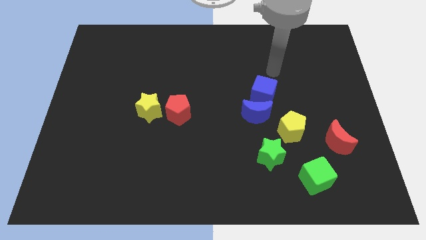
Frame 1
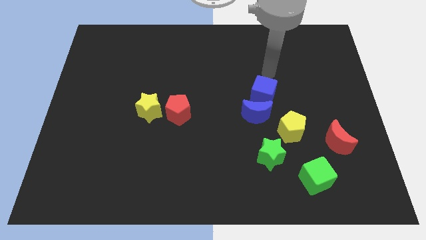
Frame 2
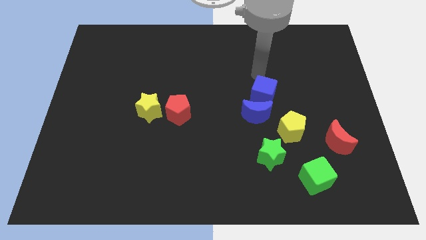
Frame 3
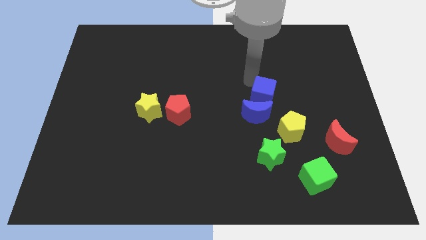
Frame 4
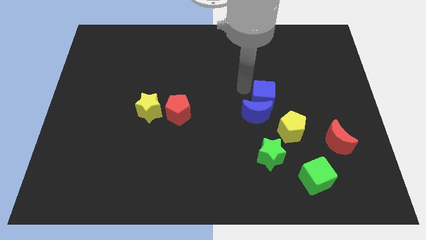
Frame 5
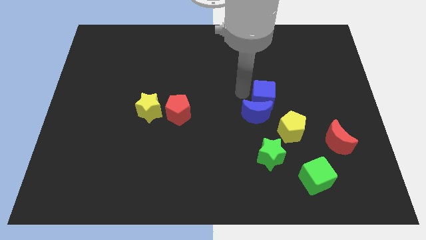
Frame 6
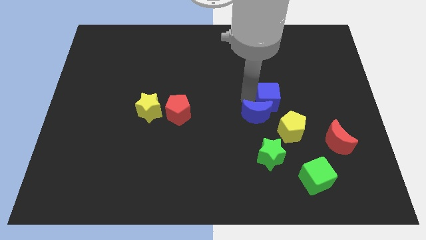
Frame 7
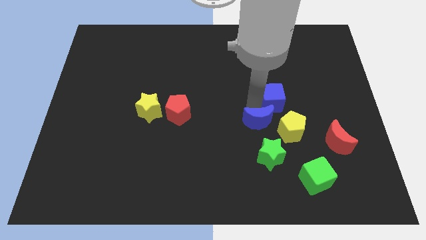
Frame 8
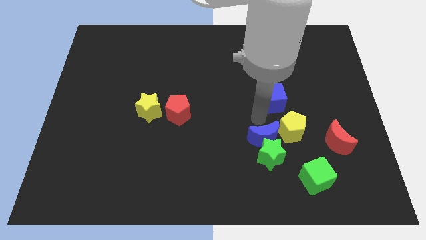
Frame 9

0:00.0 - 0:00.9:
pull the blue cube apart from the blue moon

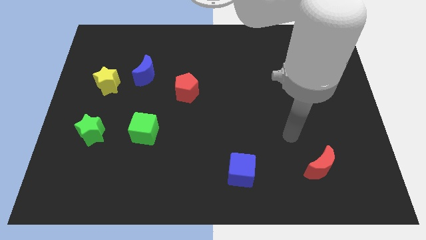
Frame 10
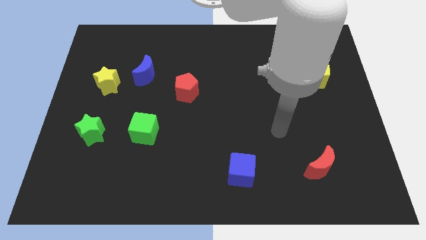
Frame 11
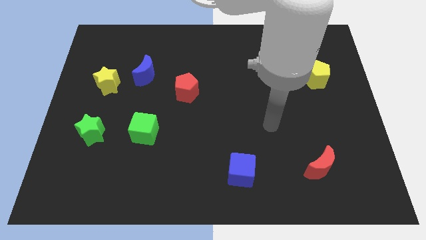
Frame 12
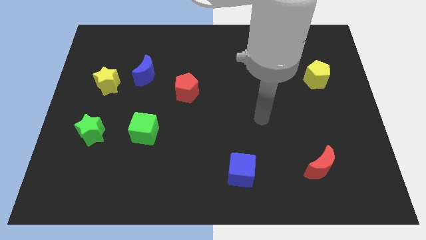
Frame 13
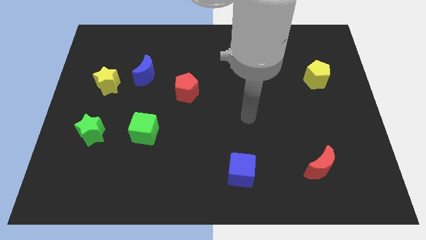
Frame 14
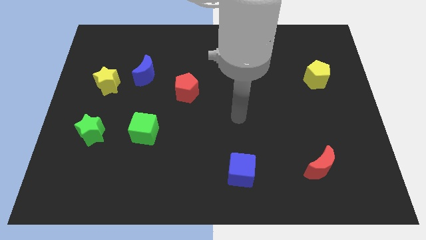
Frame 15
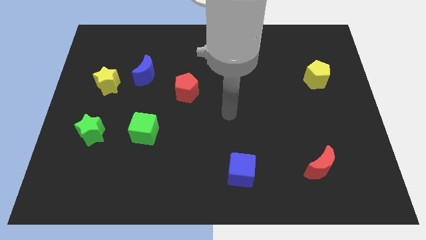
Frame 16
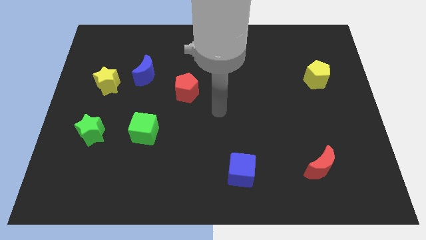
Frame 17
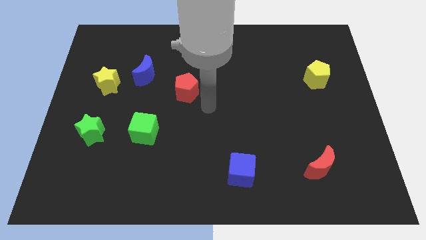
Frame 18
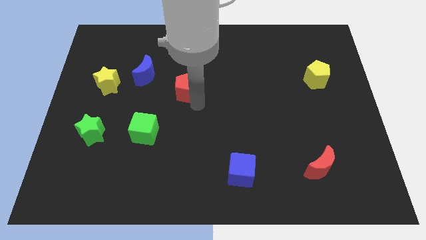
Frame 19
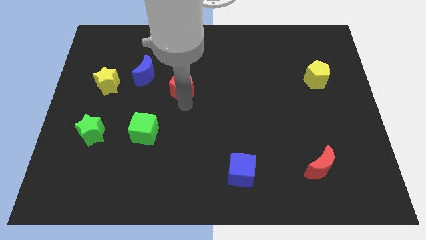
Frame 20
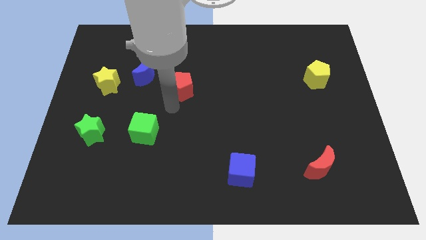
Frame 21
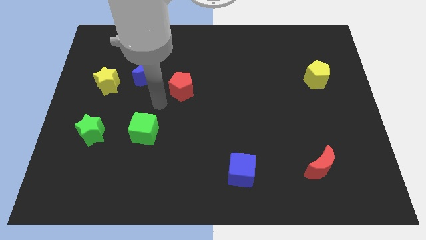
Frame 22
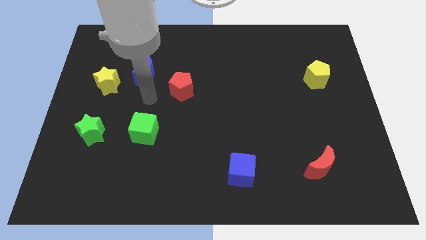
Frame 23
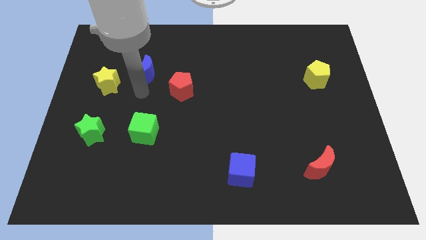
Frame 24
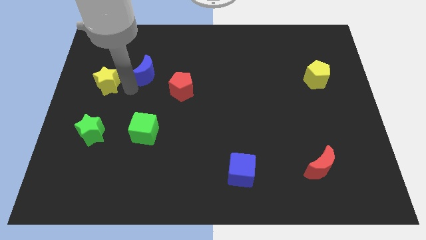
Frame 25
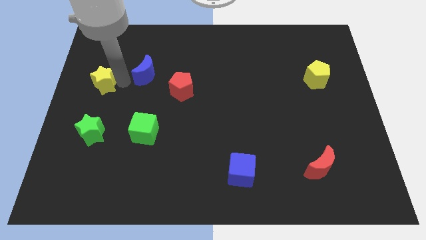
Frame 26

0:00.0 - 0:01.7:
move the blue moon away from the yellow star

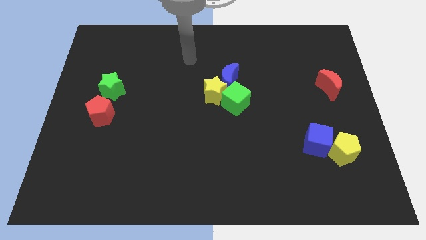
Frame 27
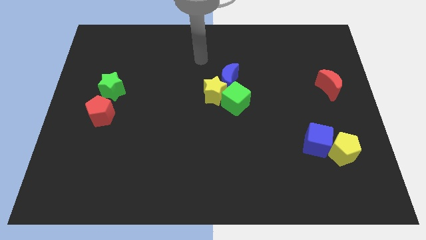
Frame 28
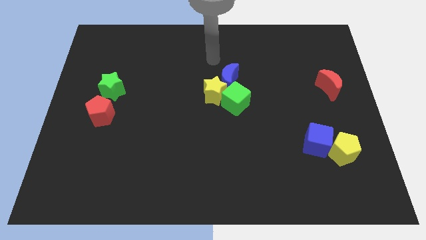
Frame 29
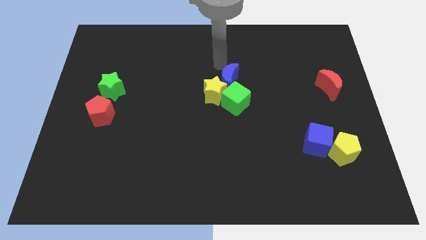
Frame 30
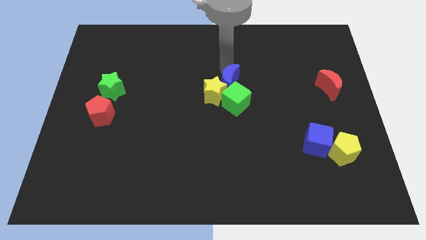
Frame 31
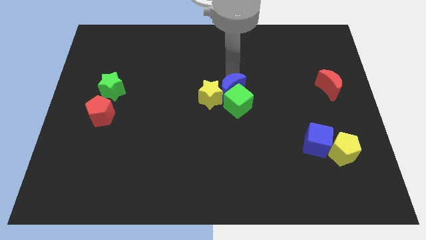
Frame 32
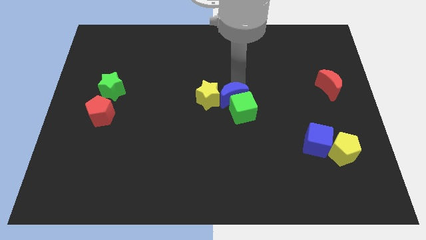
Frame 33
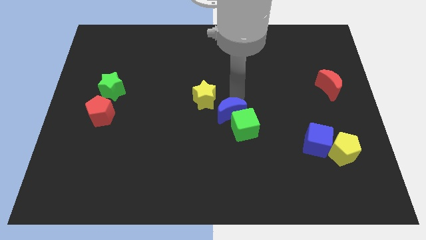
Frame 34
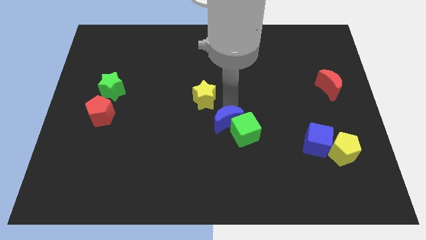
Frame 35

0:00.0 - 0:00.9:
move the yellow star away from the blue moon and green cube

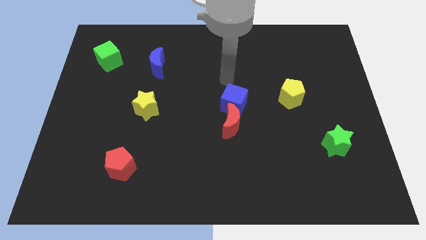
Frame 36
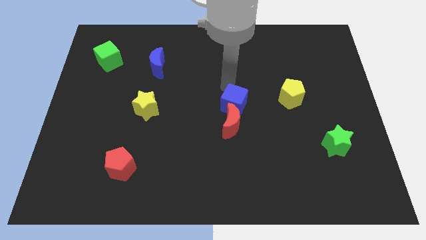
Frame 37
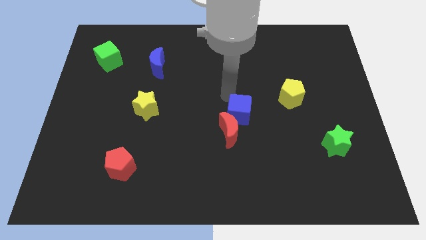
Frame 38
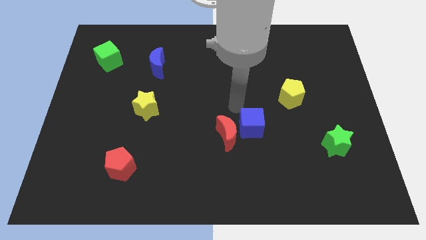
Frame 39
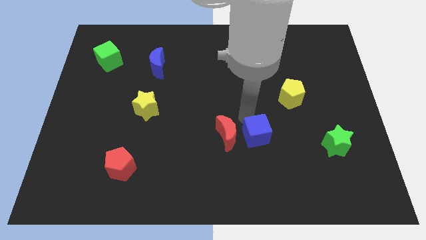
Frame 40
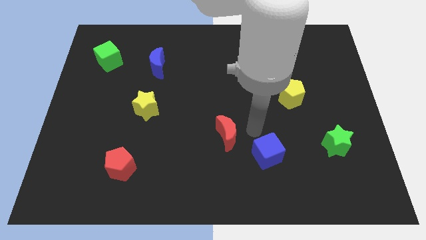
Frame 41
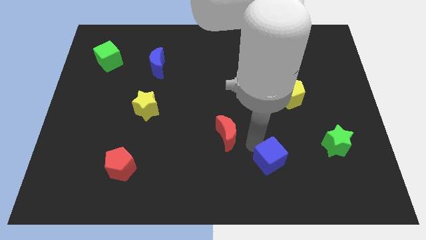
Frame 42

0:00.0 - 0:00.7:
separate the red moon from the blue cube

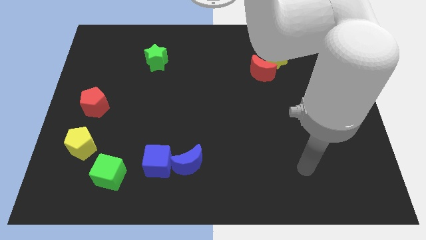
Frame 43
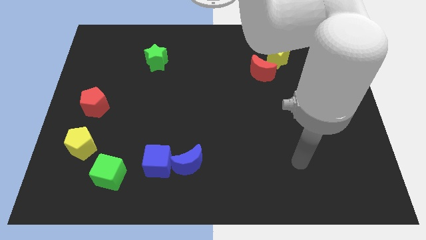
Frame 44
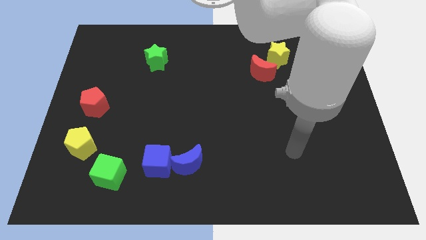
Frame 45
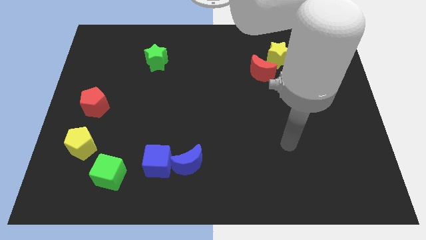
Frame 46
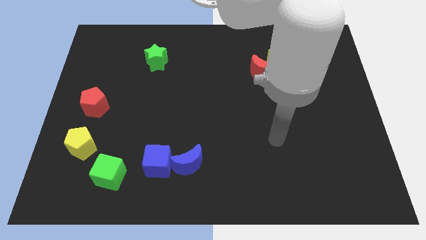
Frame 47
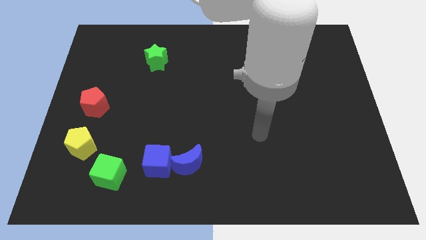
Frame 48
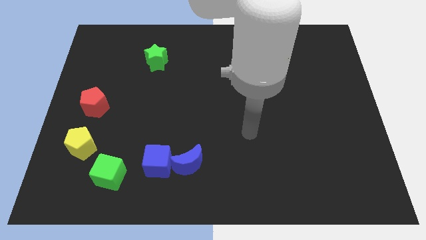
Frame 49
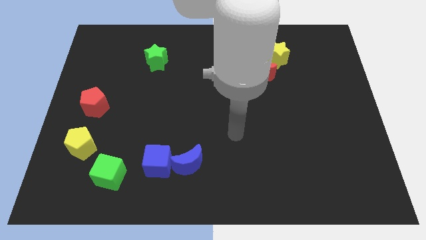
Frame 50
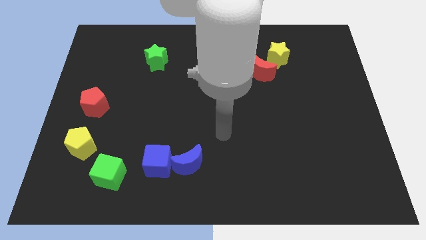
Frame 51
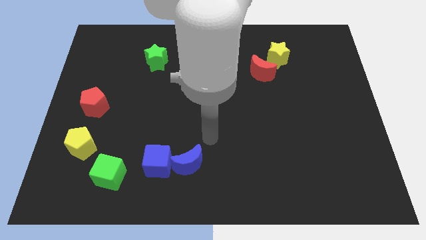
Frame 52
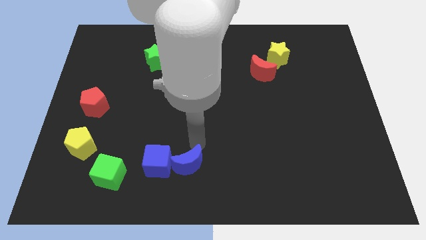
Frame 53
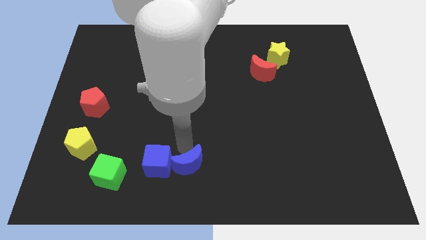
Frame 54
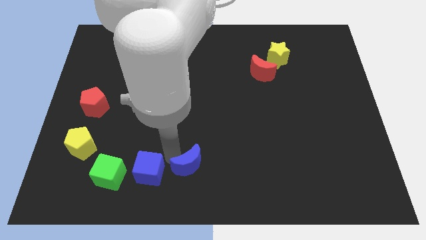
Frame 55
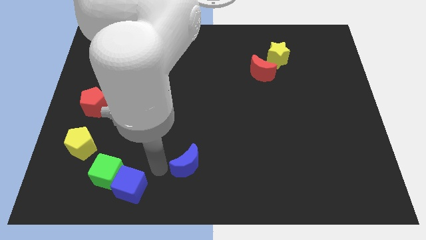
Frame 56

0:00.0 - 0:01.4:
pull the blue moon apart from the blue cube

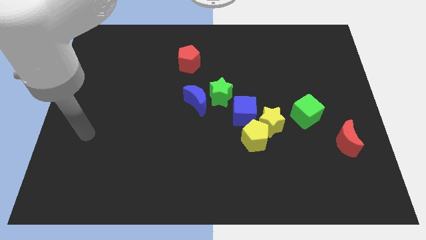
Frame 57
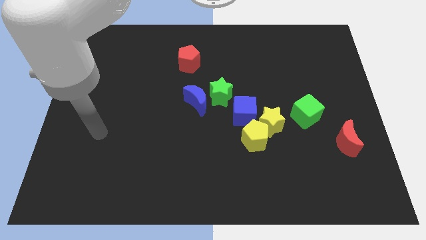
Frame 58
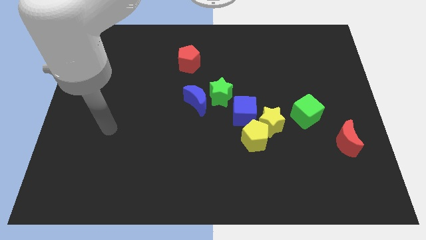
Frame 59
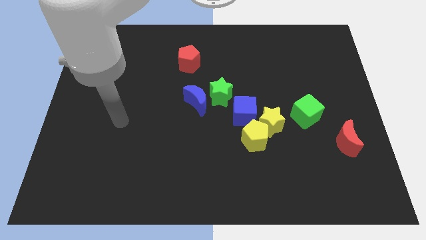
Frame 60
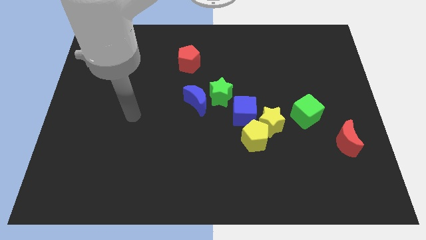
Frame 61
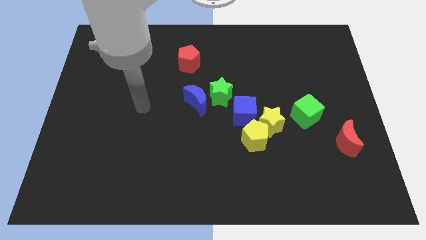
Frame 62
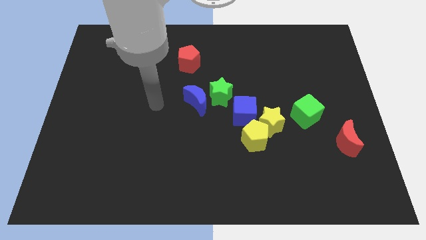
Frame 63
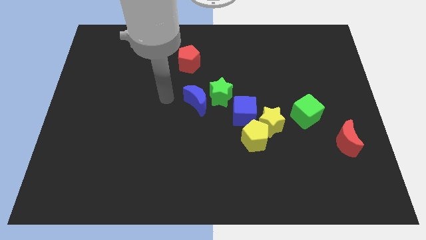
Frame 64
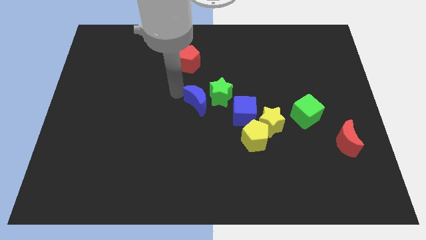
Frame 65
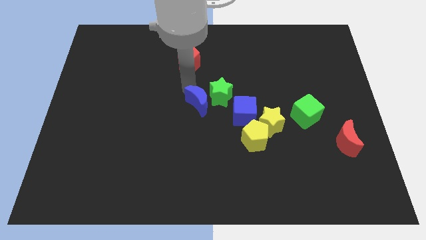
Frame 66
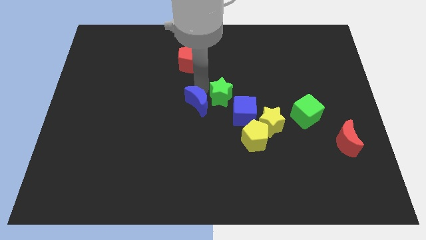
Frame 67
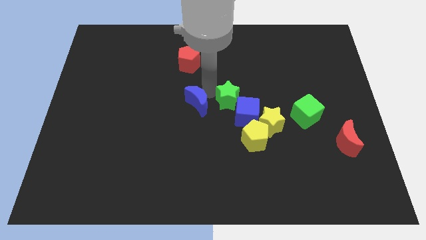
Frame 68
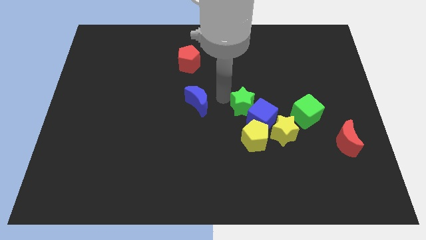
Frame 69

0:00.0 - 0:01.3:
move the blue moon away from the green star

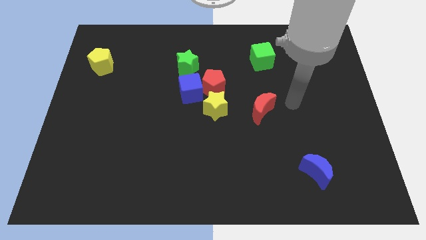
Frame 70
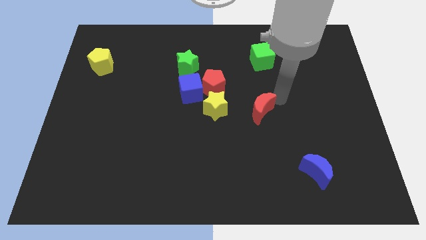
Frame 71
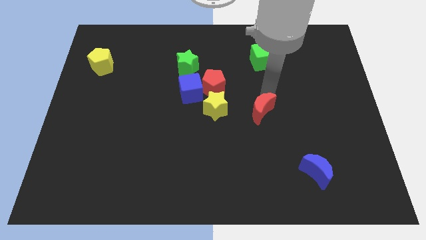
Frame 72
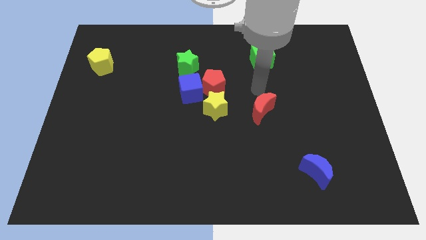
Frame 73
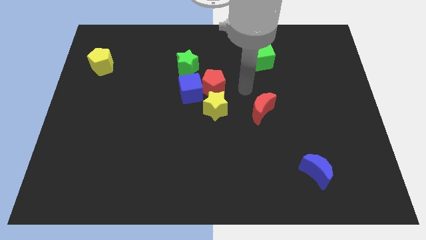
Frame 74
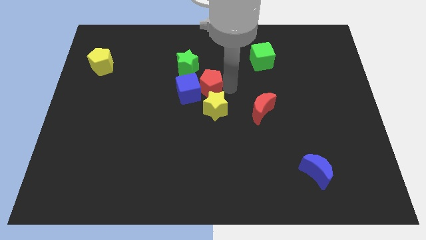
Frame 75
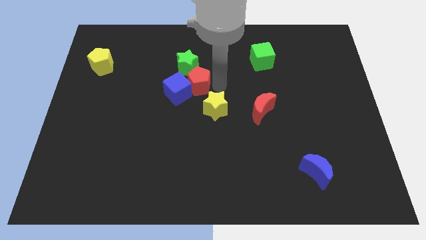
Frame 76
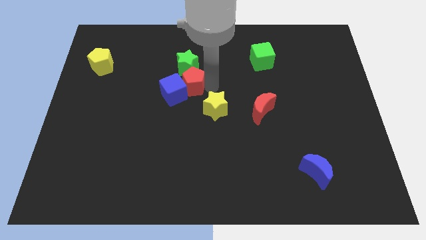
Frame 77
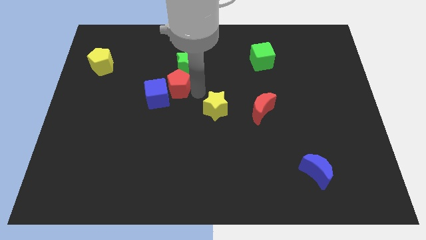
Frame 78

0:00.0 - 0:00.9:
separate the yellow star from the red pentagon and blue cube

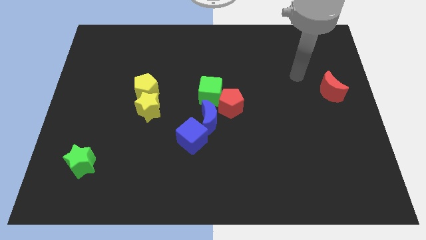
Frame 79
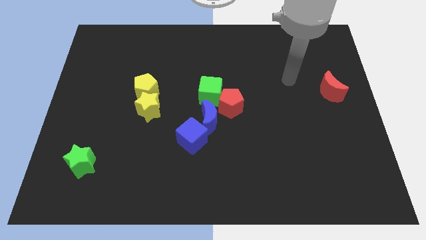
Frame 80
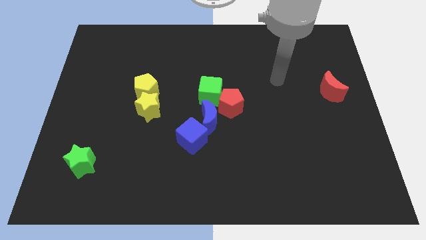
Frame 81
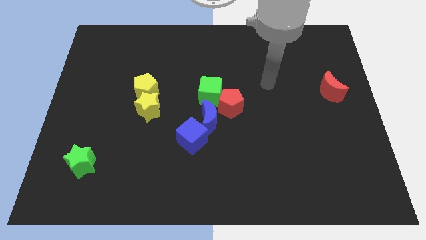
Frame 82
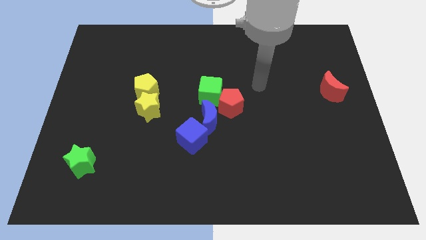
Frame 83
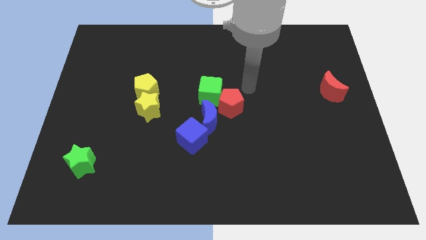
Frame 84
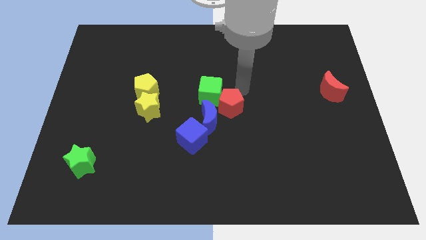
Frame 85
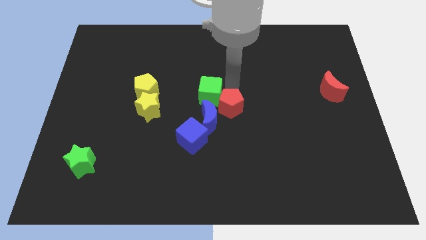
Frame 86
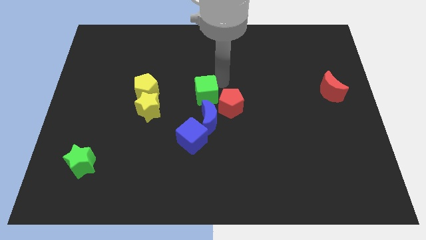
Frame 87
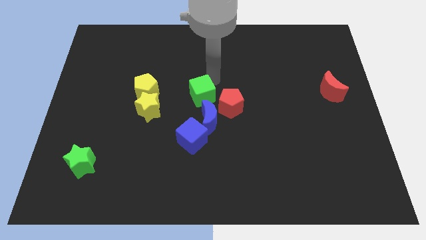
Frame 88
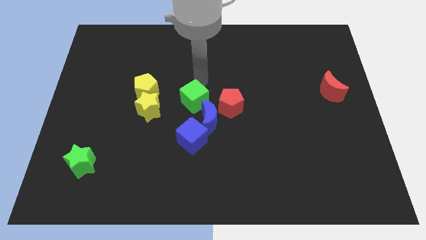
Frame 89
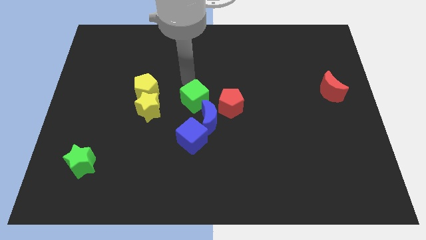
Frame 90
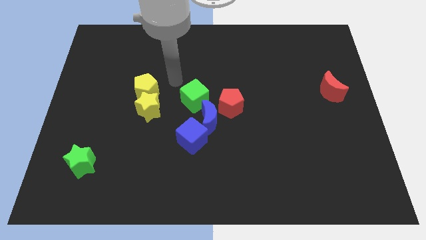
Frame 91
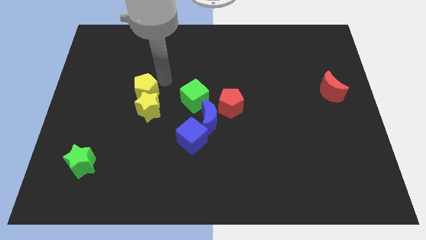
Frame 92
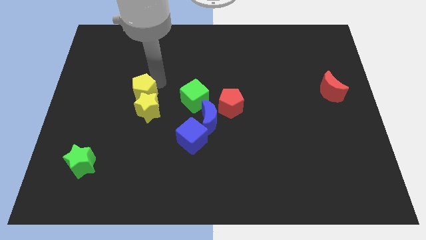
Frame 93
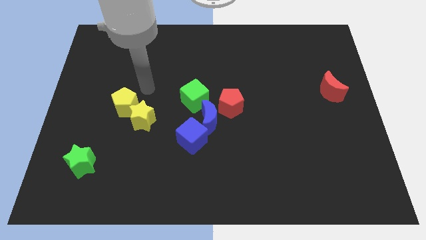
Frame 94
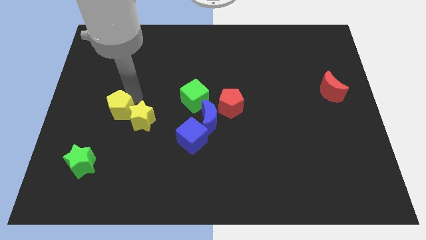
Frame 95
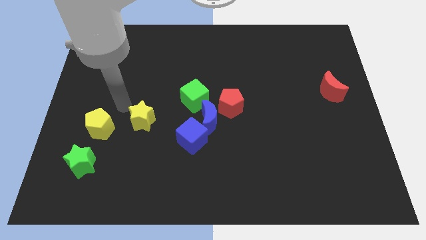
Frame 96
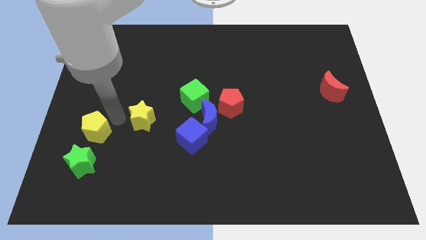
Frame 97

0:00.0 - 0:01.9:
pull the yellow star apart from the yellow pentagon
